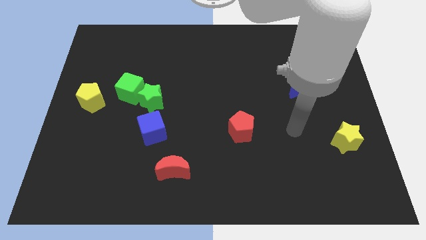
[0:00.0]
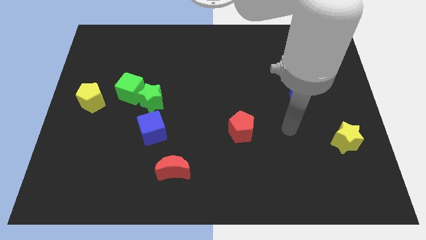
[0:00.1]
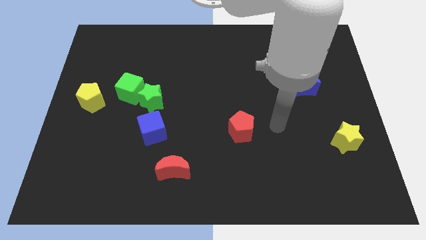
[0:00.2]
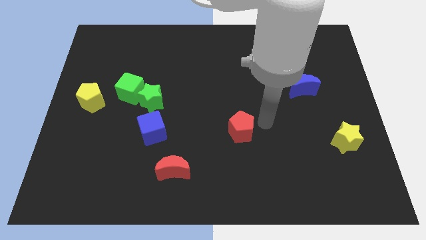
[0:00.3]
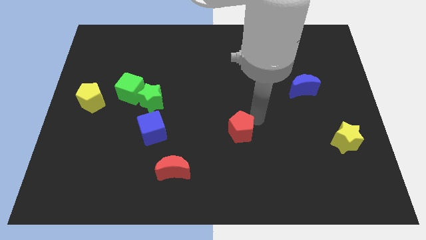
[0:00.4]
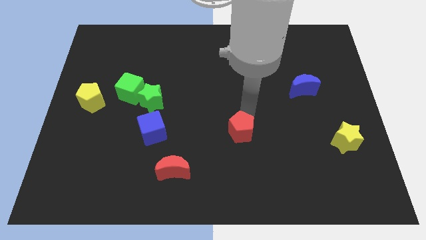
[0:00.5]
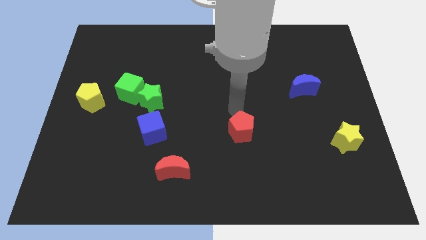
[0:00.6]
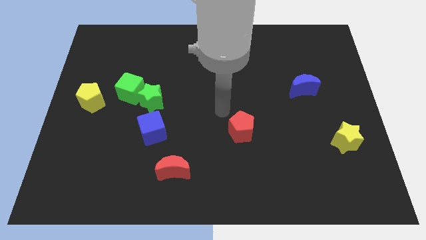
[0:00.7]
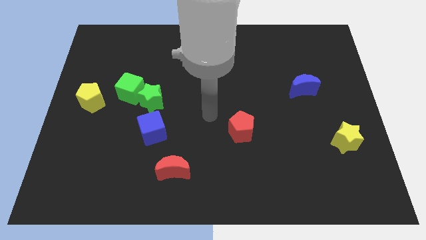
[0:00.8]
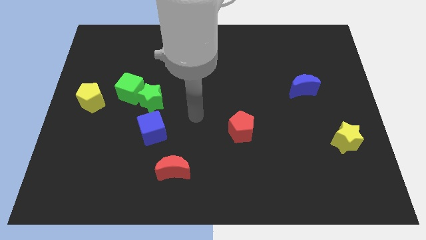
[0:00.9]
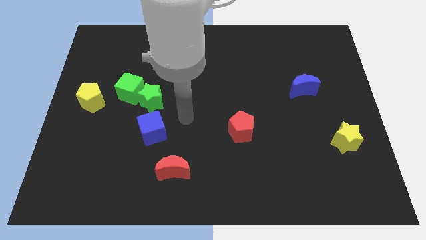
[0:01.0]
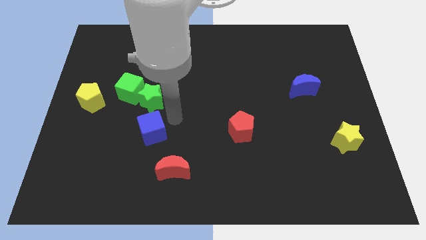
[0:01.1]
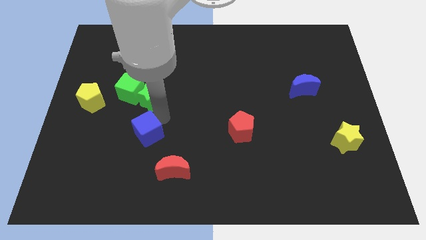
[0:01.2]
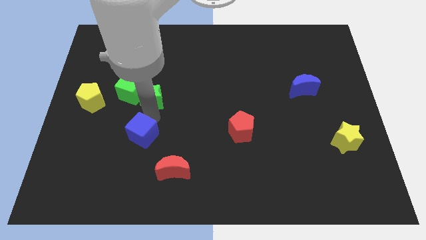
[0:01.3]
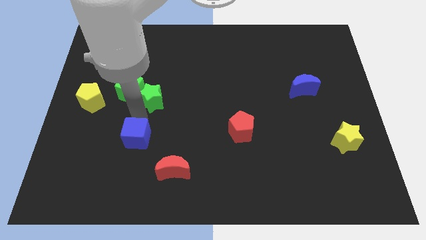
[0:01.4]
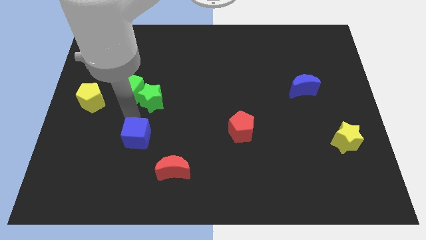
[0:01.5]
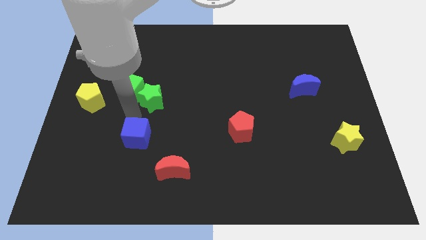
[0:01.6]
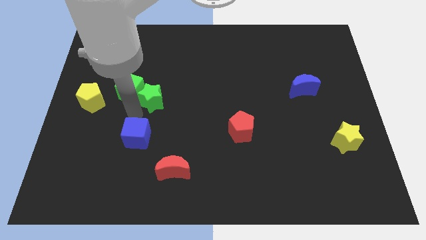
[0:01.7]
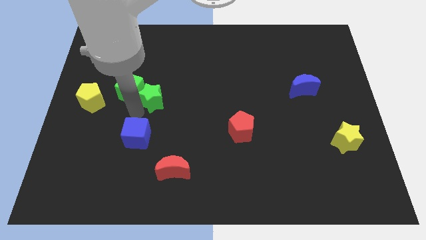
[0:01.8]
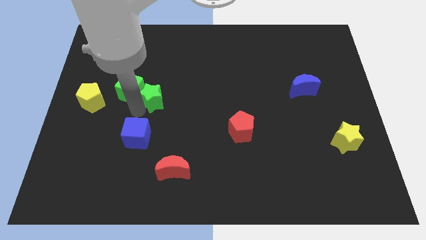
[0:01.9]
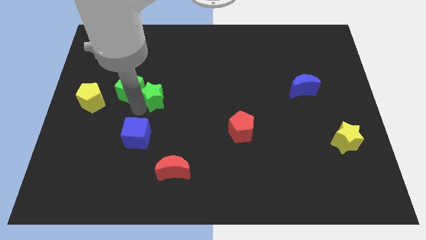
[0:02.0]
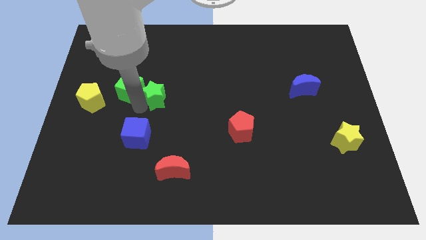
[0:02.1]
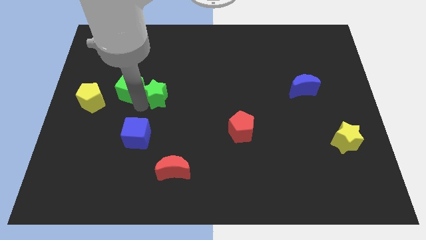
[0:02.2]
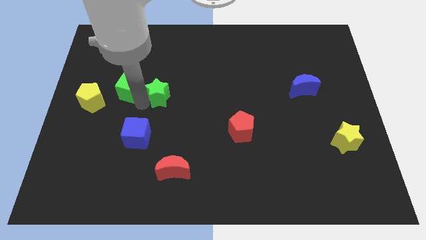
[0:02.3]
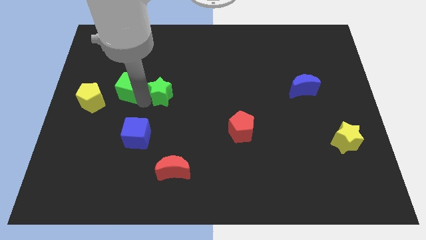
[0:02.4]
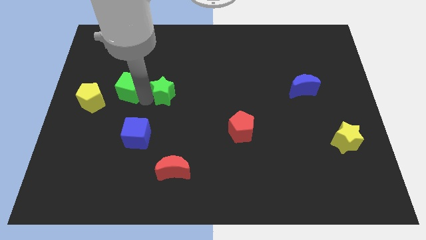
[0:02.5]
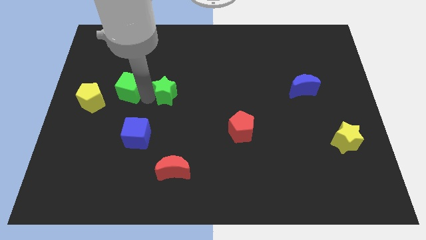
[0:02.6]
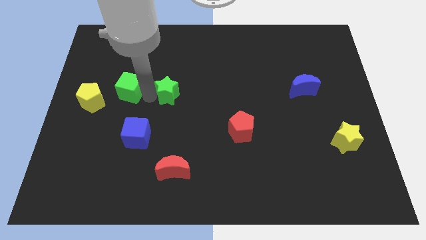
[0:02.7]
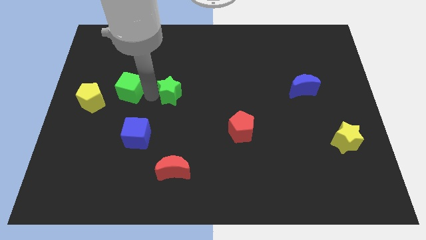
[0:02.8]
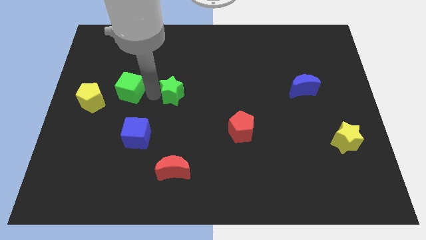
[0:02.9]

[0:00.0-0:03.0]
move the green star away from the green cube and blue cube

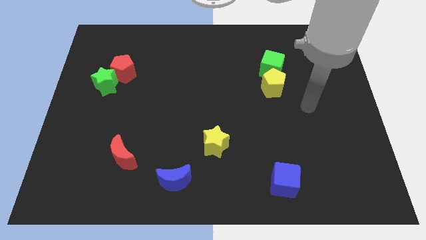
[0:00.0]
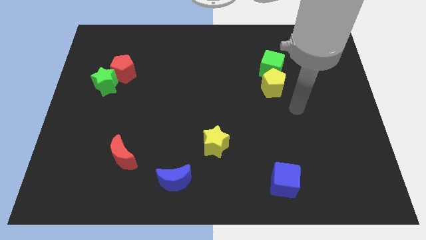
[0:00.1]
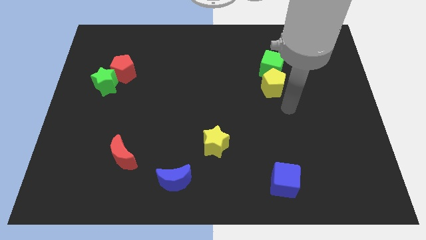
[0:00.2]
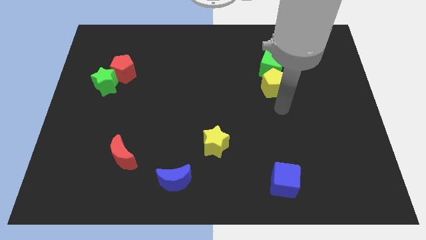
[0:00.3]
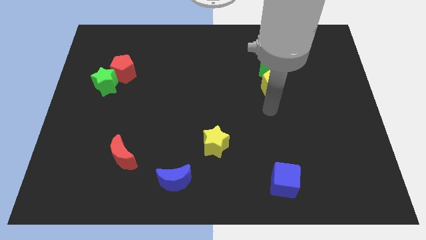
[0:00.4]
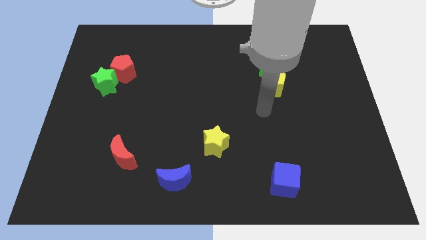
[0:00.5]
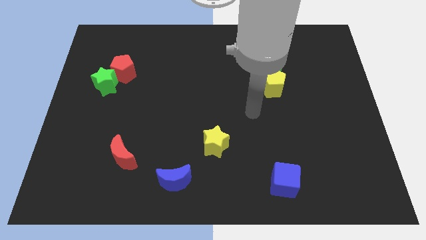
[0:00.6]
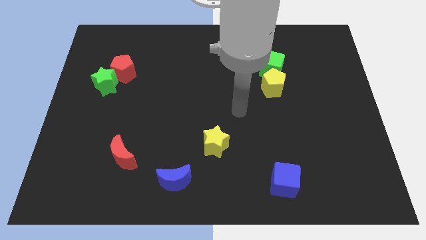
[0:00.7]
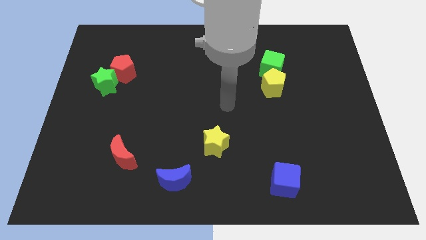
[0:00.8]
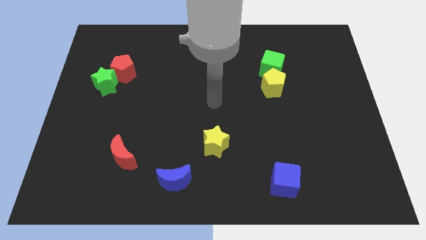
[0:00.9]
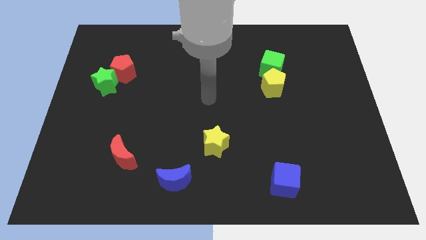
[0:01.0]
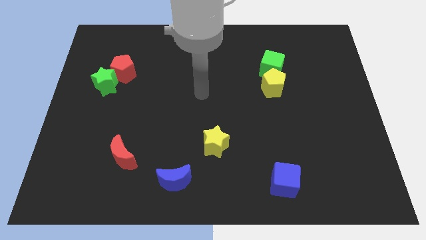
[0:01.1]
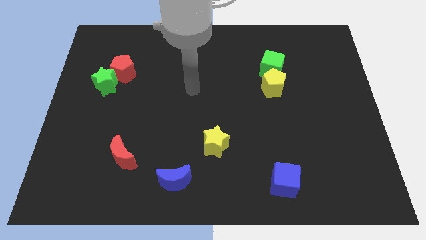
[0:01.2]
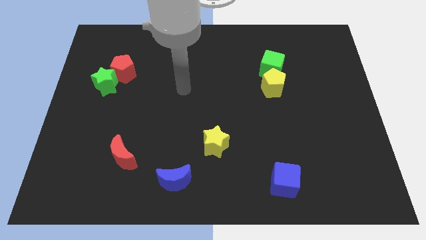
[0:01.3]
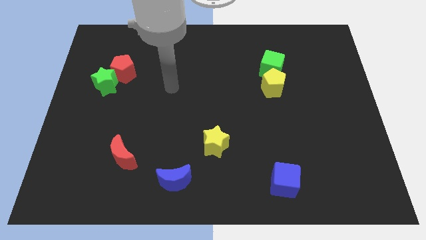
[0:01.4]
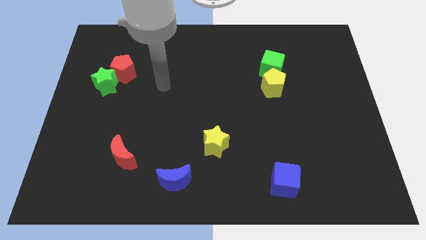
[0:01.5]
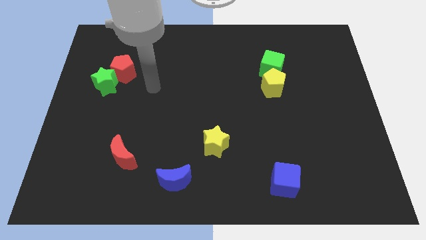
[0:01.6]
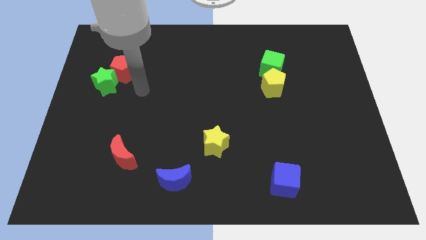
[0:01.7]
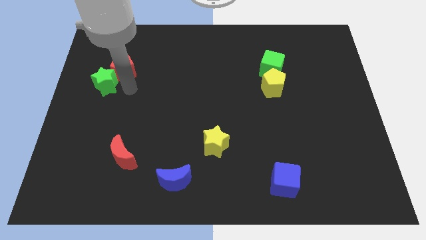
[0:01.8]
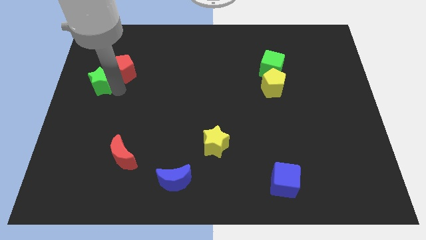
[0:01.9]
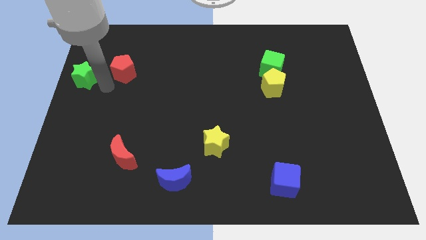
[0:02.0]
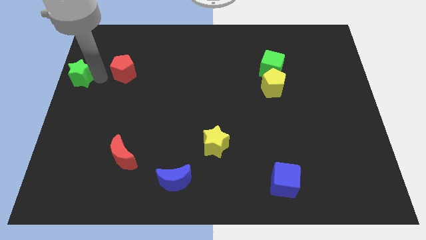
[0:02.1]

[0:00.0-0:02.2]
pull the red pentagon apart from the green star

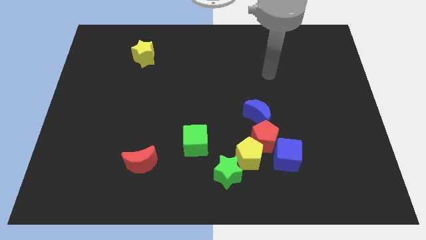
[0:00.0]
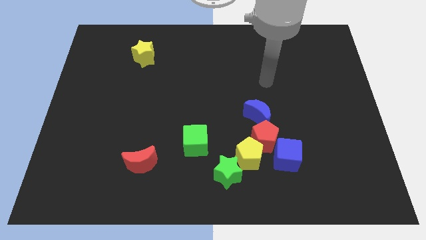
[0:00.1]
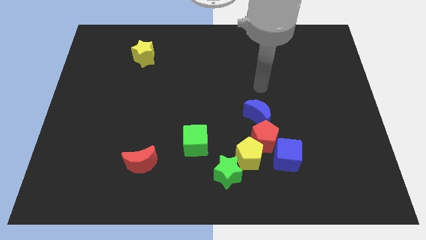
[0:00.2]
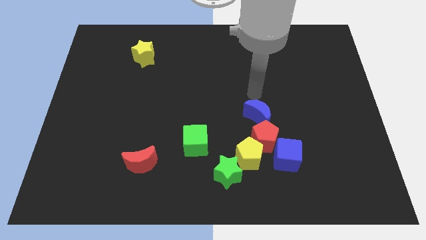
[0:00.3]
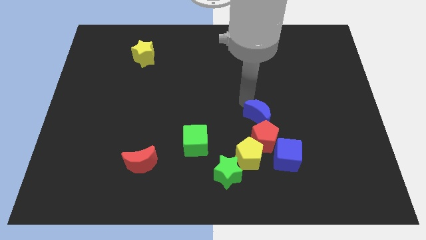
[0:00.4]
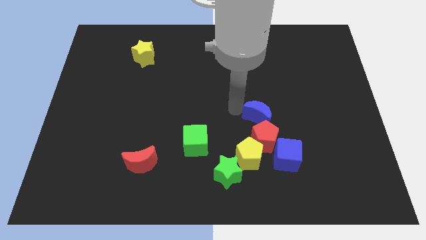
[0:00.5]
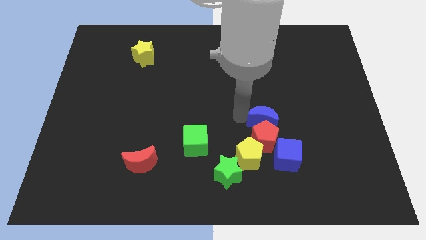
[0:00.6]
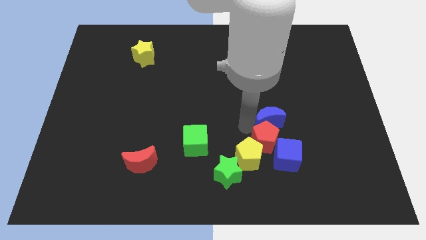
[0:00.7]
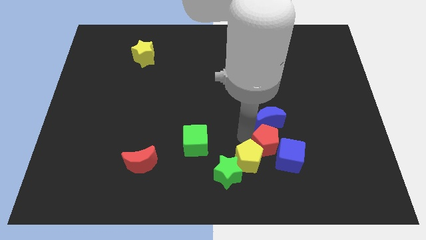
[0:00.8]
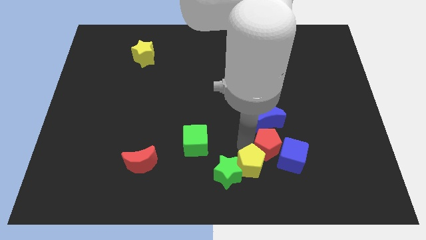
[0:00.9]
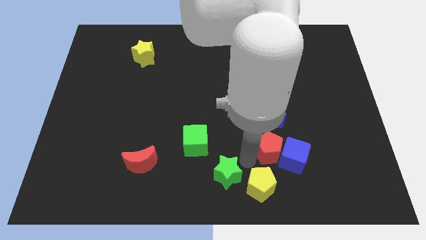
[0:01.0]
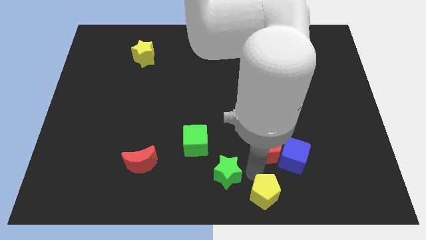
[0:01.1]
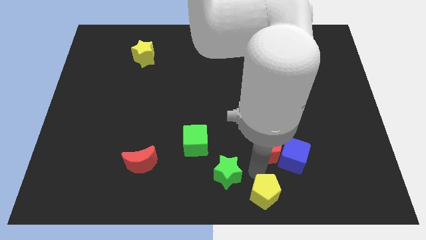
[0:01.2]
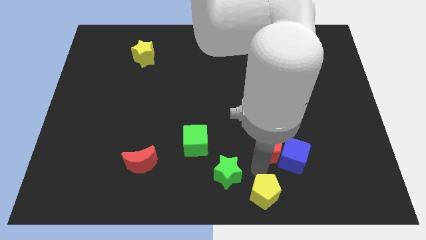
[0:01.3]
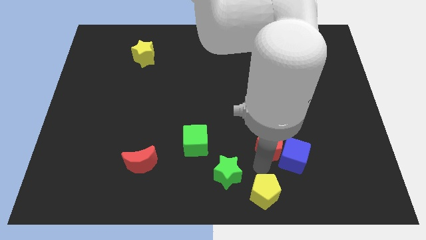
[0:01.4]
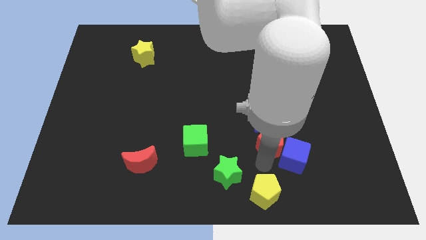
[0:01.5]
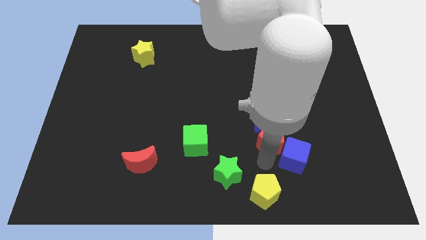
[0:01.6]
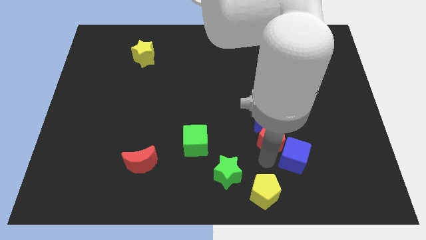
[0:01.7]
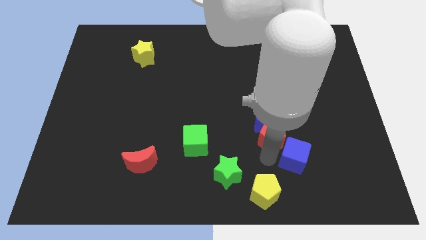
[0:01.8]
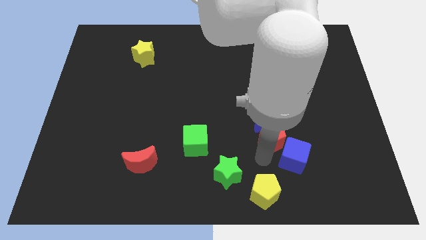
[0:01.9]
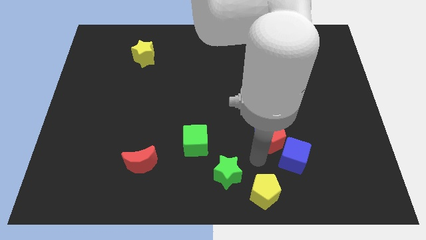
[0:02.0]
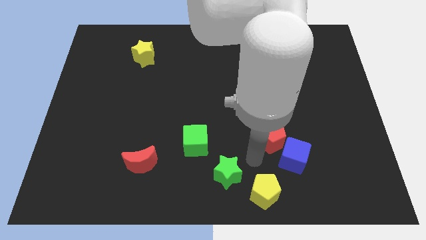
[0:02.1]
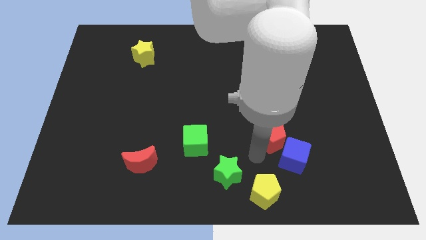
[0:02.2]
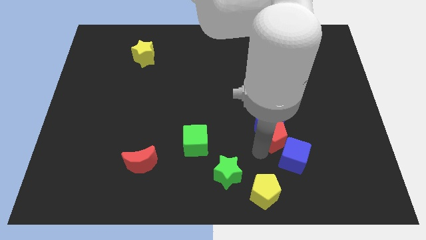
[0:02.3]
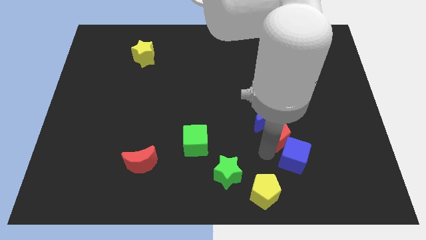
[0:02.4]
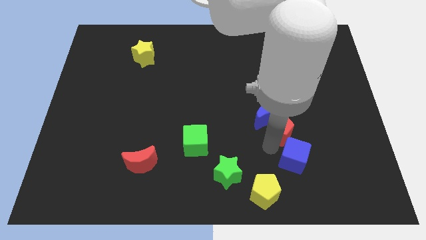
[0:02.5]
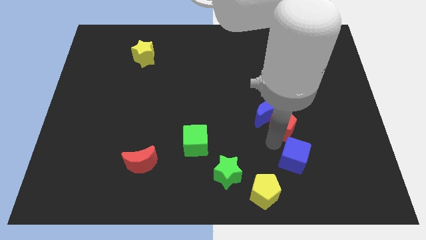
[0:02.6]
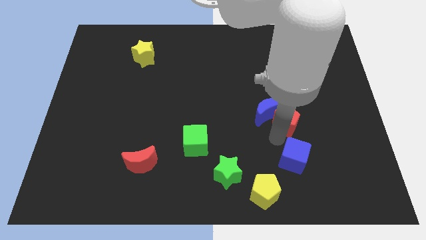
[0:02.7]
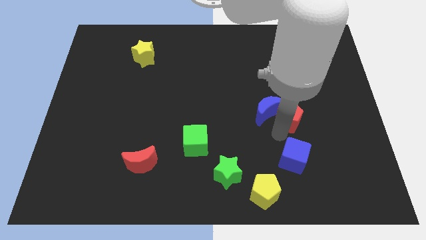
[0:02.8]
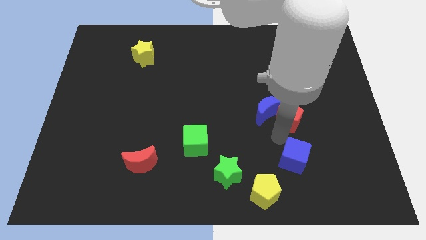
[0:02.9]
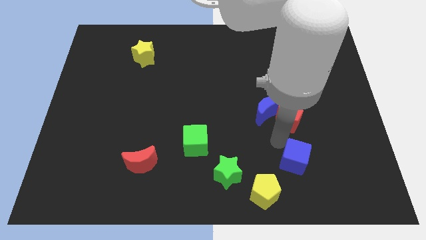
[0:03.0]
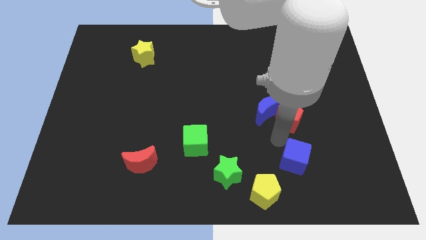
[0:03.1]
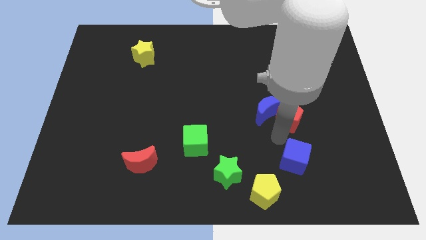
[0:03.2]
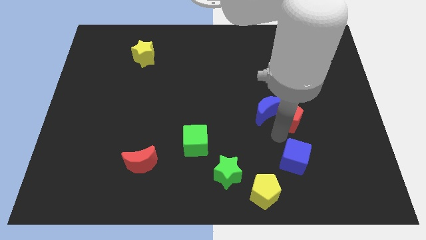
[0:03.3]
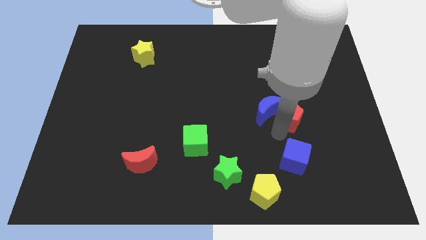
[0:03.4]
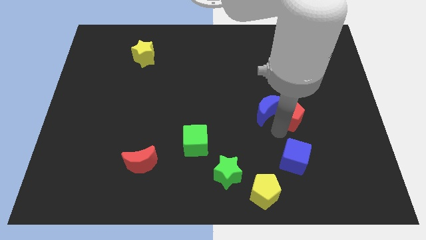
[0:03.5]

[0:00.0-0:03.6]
move the red pentagon away from the yellow pentagon, blue cube, and blue moon

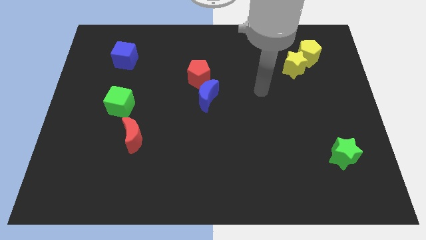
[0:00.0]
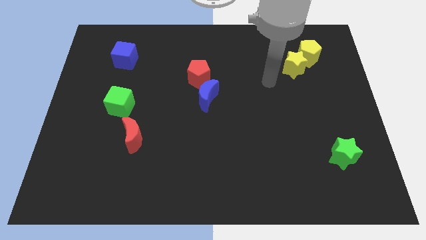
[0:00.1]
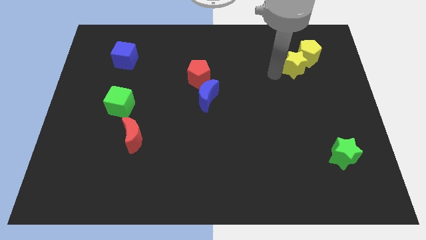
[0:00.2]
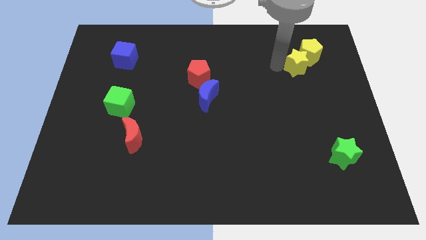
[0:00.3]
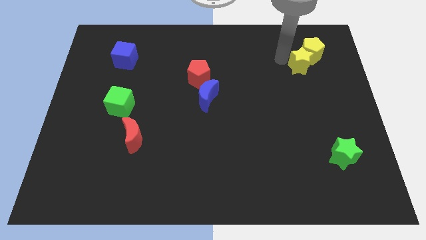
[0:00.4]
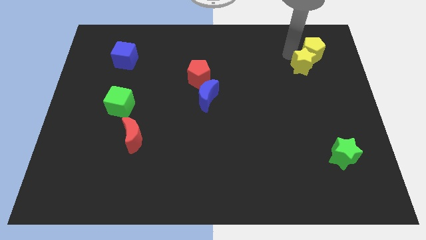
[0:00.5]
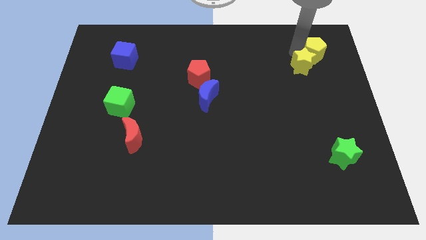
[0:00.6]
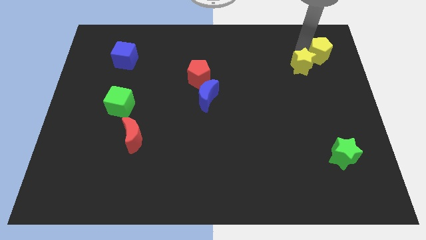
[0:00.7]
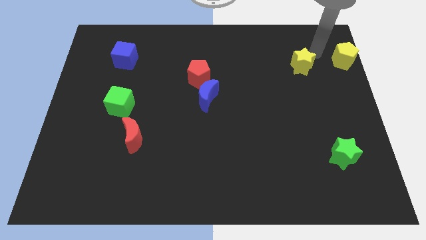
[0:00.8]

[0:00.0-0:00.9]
pull the yellow star apart from the yellow pentagon
